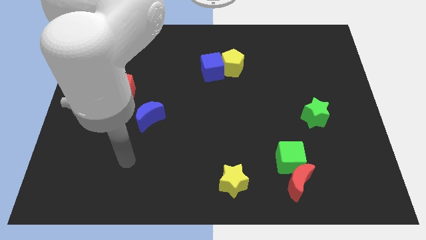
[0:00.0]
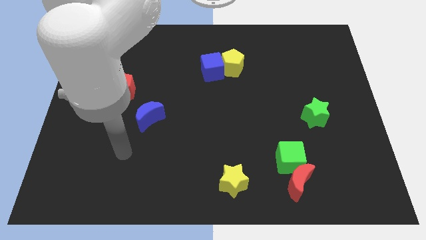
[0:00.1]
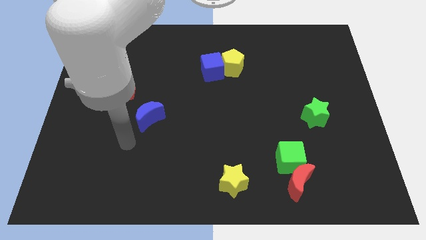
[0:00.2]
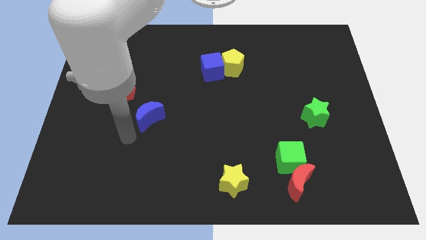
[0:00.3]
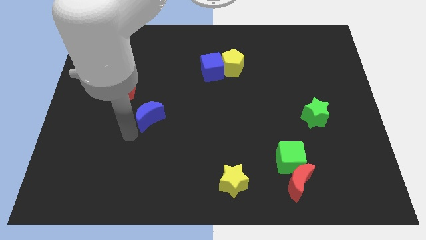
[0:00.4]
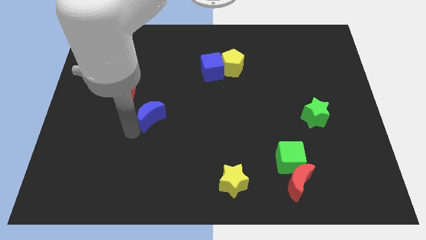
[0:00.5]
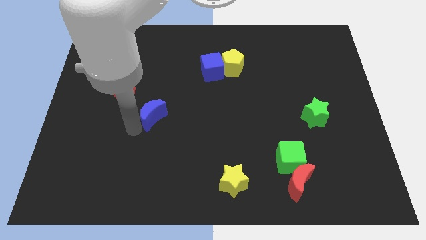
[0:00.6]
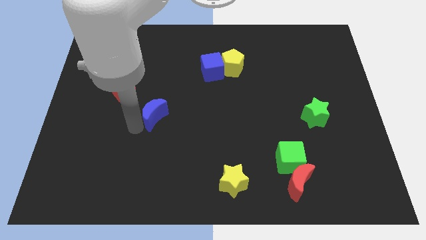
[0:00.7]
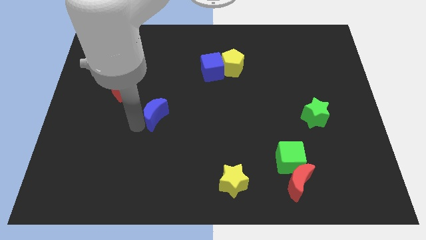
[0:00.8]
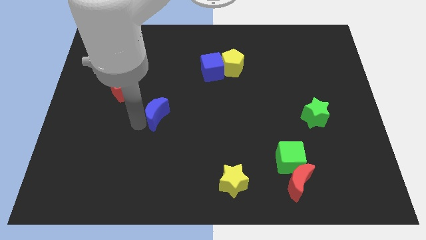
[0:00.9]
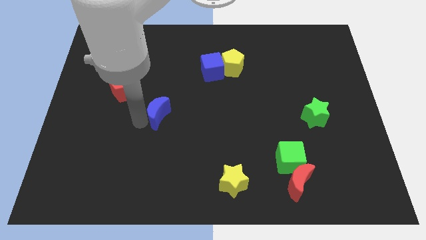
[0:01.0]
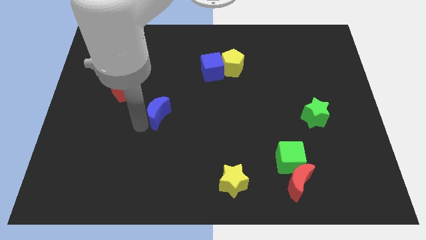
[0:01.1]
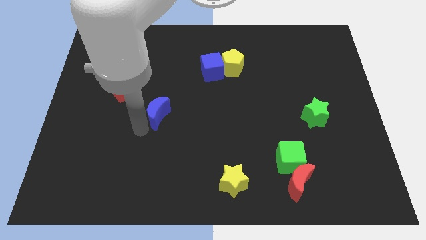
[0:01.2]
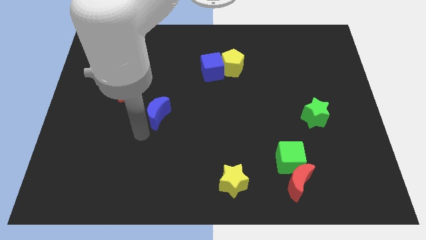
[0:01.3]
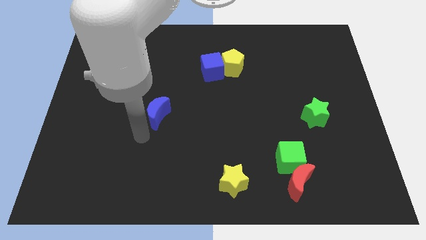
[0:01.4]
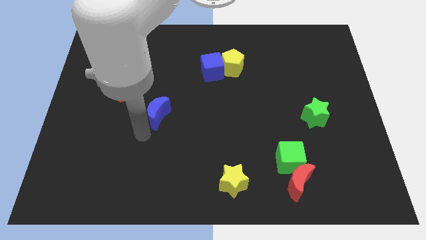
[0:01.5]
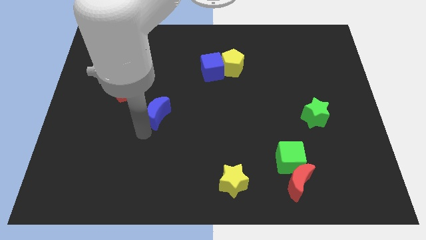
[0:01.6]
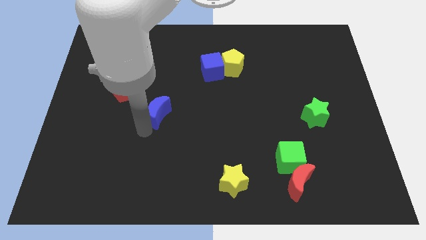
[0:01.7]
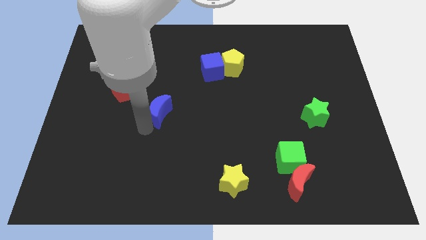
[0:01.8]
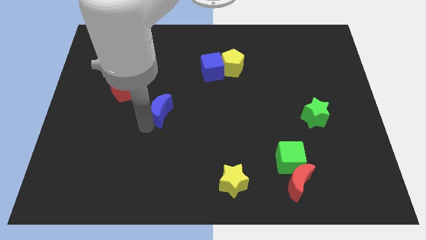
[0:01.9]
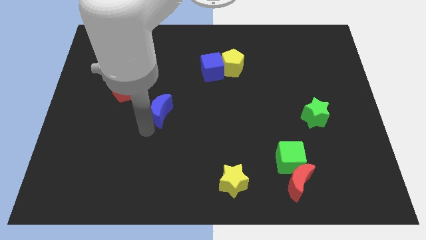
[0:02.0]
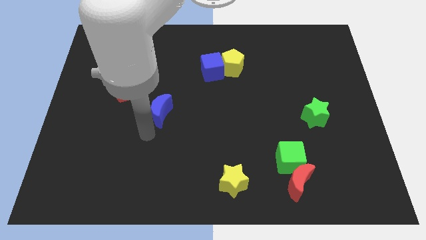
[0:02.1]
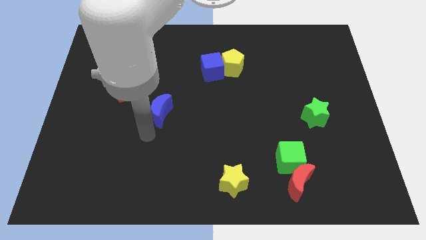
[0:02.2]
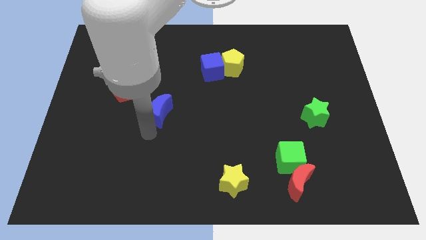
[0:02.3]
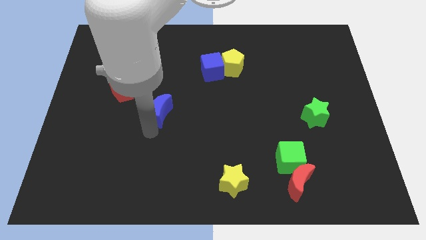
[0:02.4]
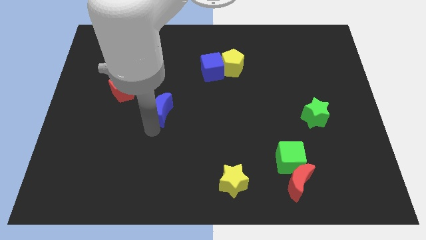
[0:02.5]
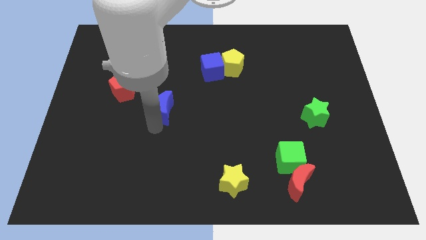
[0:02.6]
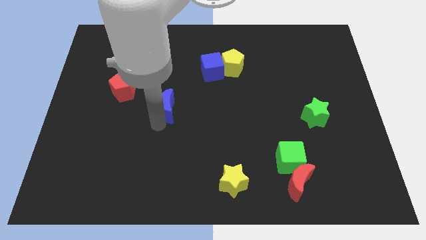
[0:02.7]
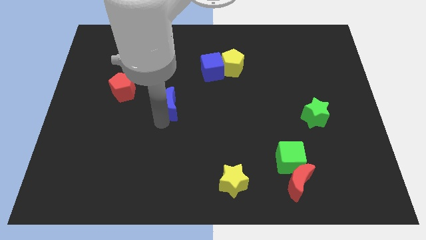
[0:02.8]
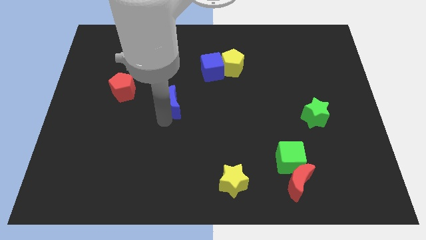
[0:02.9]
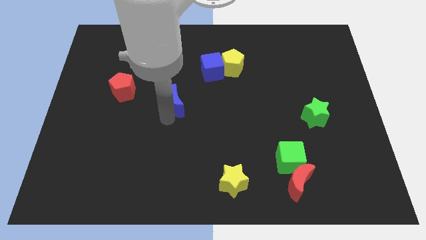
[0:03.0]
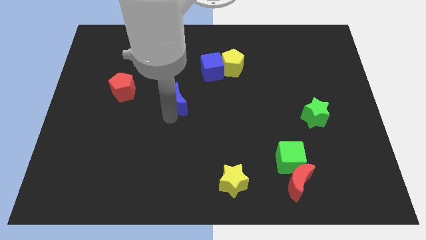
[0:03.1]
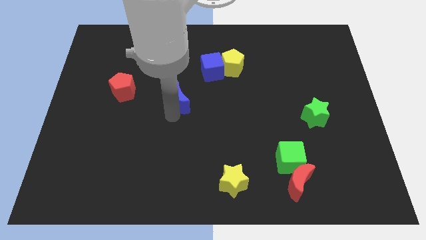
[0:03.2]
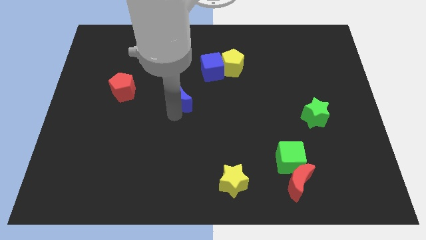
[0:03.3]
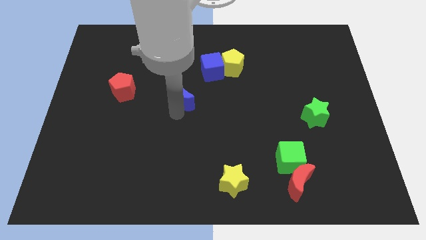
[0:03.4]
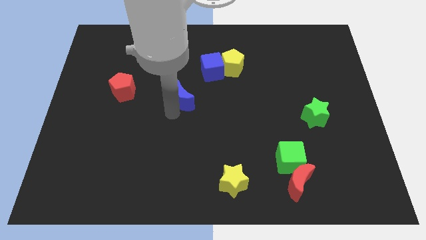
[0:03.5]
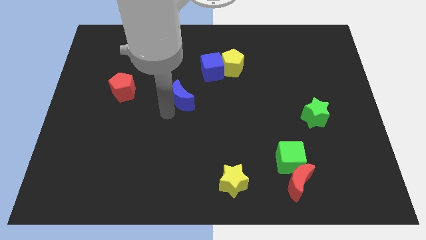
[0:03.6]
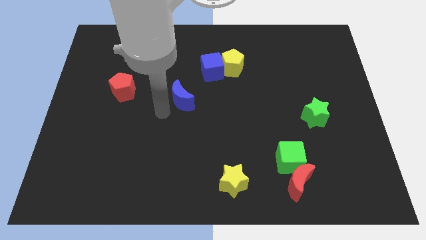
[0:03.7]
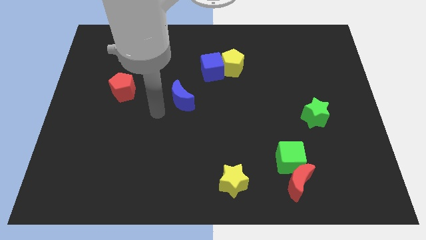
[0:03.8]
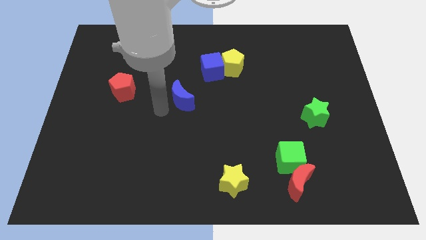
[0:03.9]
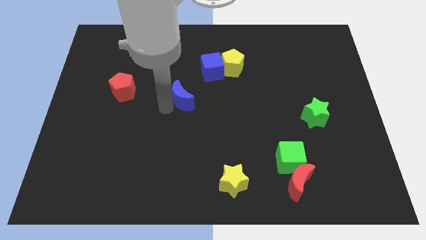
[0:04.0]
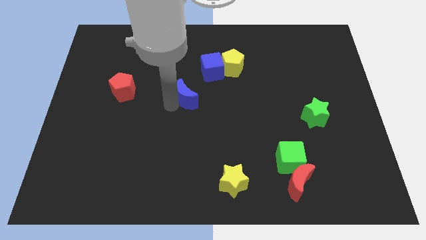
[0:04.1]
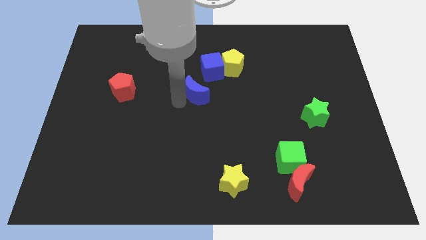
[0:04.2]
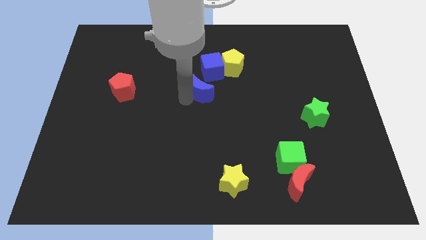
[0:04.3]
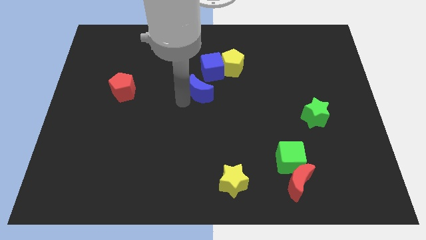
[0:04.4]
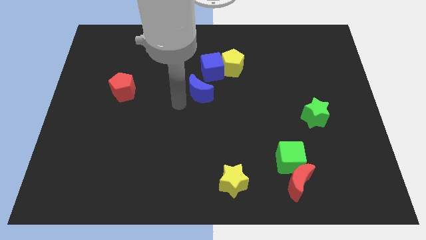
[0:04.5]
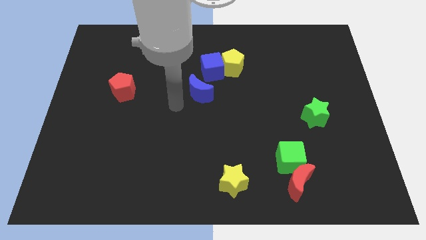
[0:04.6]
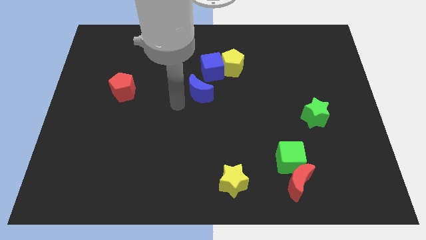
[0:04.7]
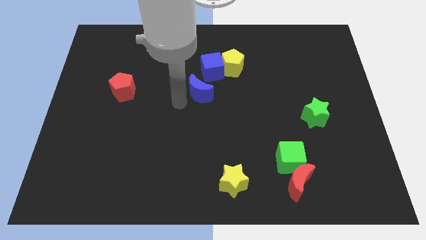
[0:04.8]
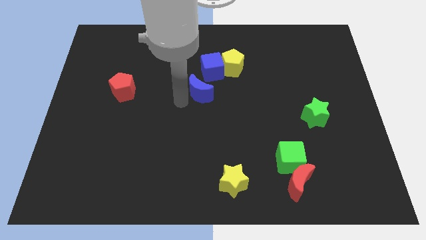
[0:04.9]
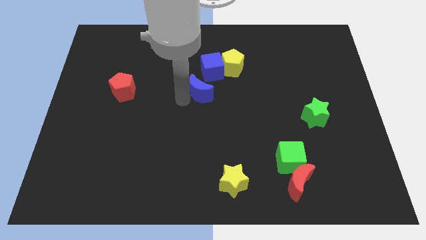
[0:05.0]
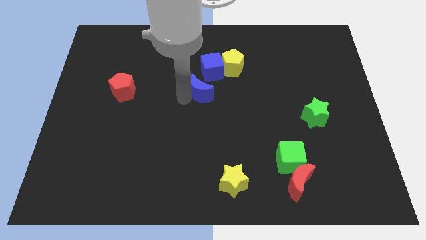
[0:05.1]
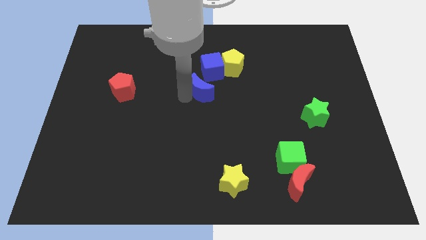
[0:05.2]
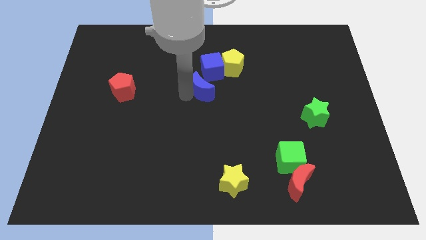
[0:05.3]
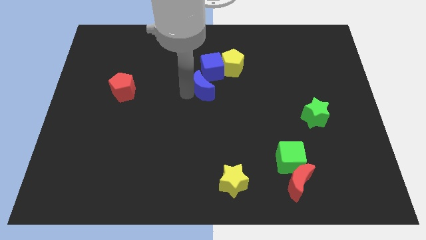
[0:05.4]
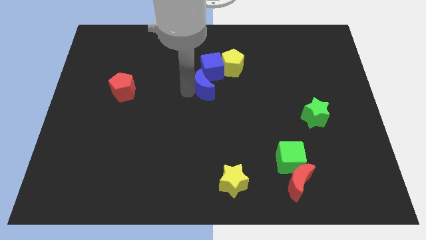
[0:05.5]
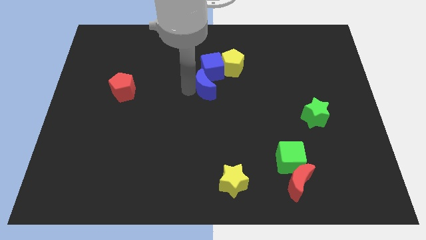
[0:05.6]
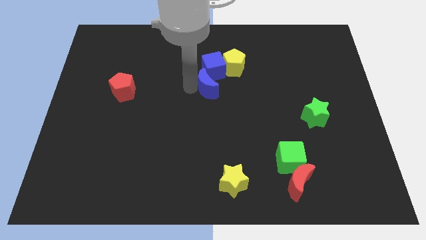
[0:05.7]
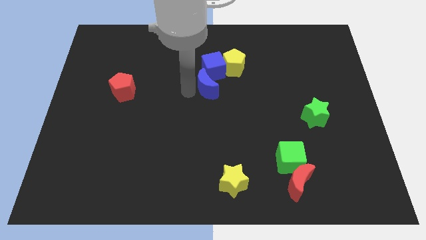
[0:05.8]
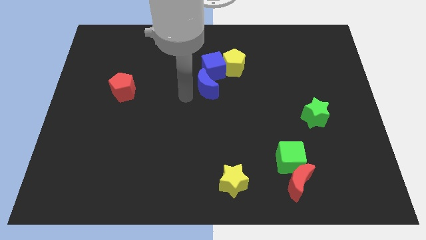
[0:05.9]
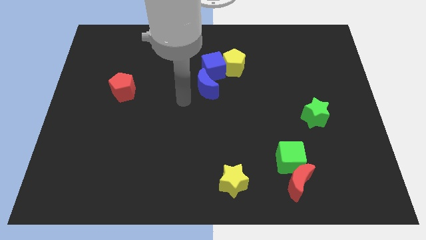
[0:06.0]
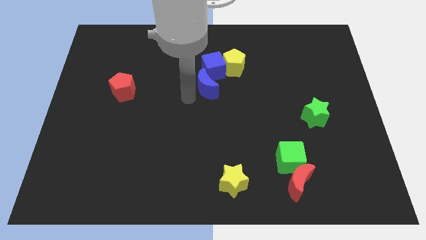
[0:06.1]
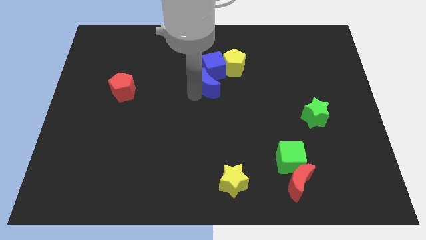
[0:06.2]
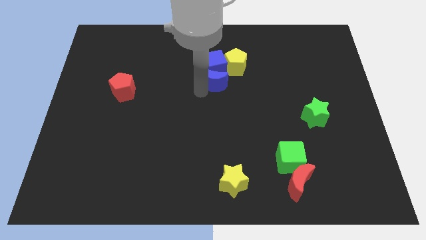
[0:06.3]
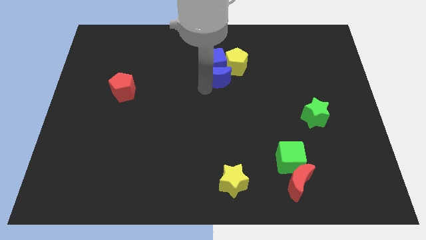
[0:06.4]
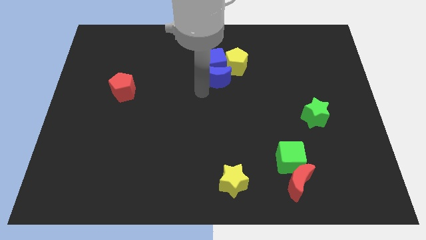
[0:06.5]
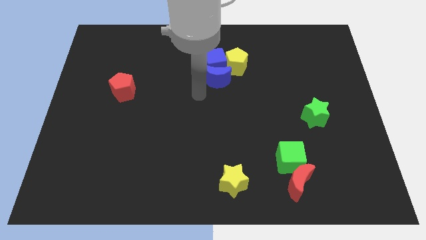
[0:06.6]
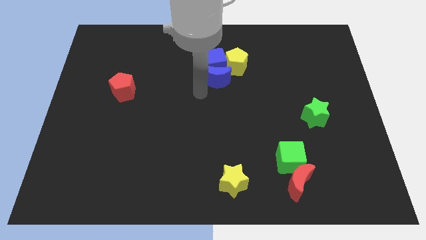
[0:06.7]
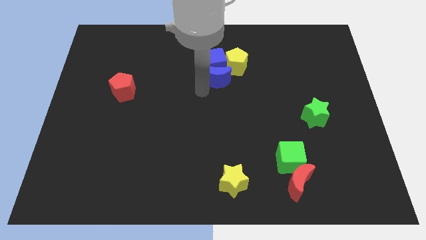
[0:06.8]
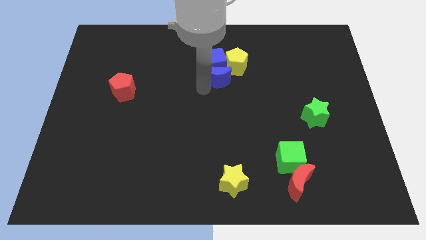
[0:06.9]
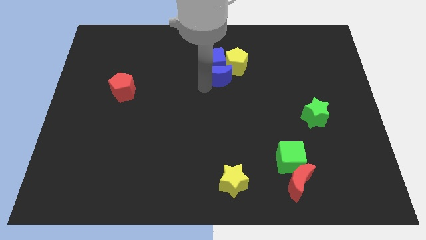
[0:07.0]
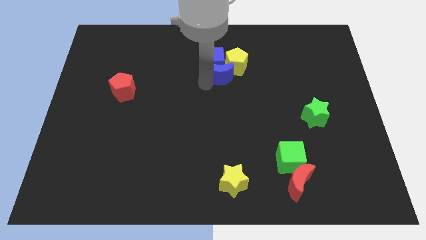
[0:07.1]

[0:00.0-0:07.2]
push the blue moon towards the yellow pentagon

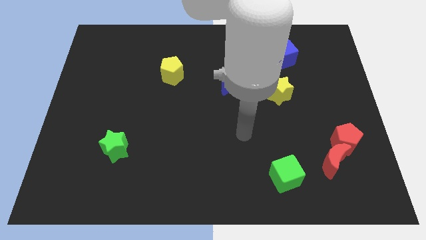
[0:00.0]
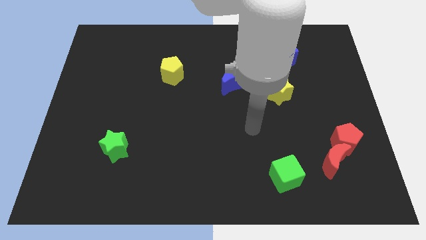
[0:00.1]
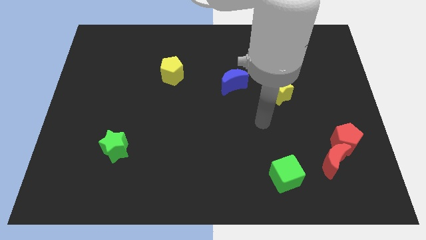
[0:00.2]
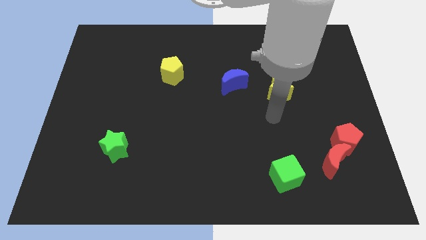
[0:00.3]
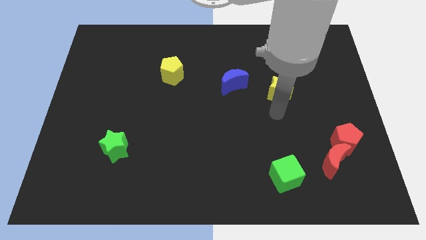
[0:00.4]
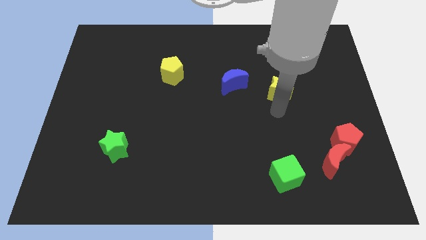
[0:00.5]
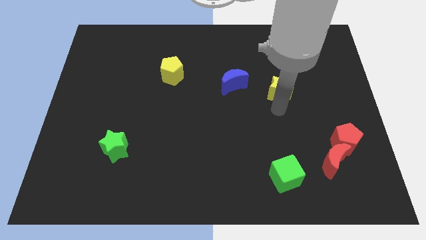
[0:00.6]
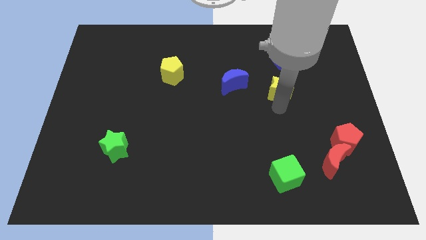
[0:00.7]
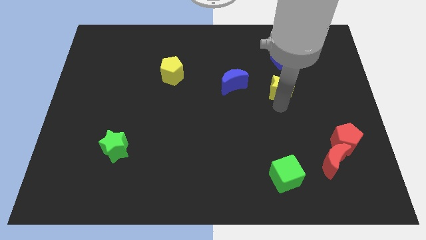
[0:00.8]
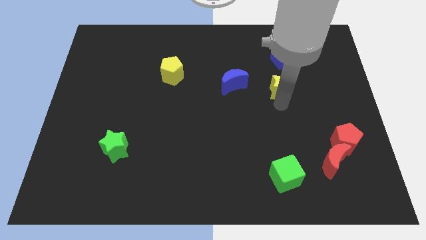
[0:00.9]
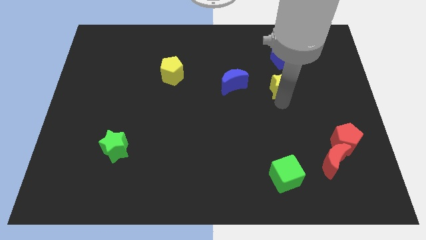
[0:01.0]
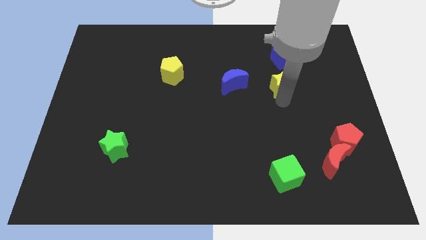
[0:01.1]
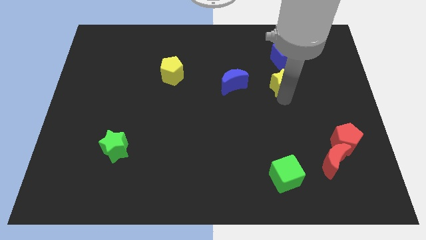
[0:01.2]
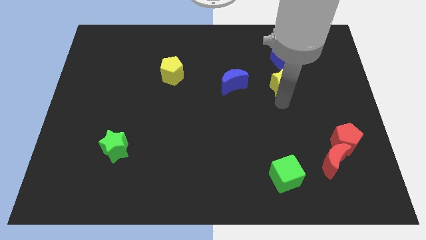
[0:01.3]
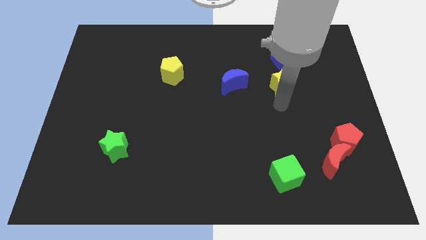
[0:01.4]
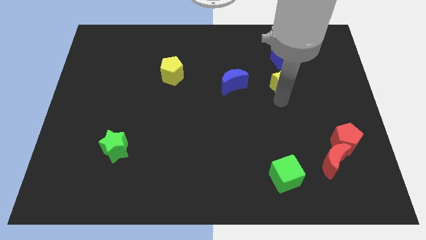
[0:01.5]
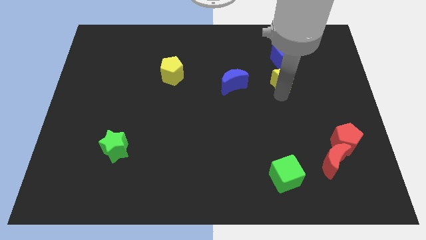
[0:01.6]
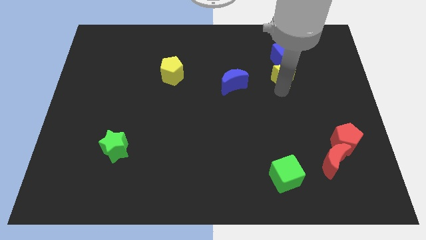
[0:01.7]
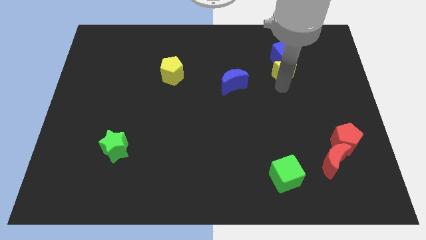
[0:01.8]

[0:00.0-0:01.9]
put the yellow star close to the blue cube
